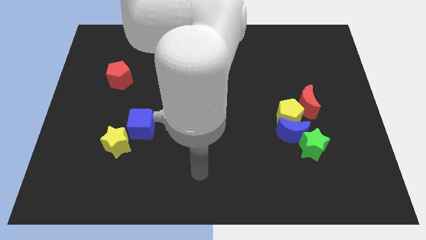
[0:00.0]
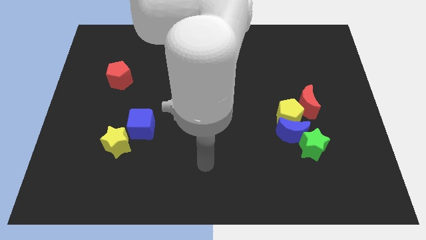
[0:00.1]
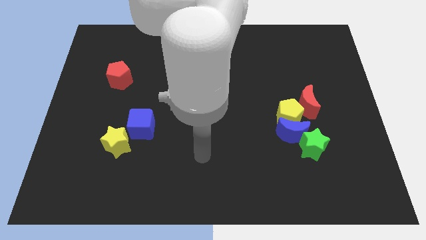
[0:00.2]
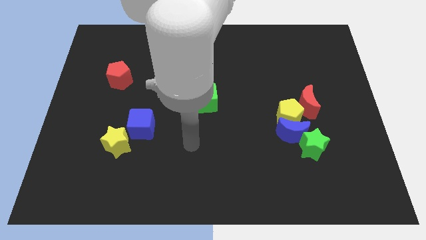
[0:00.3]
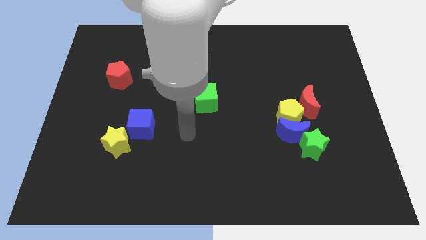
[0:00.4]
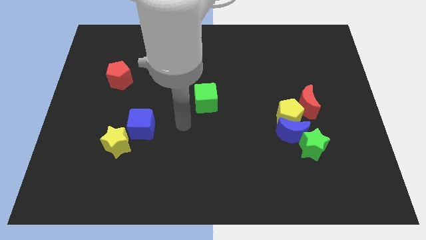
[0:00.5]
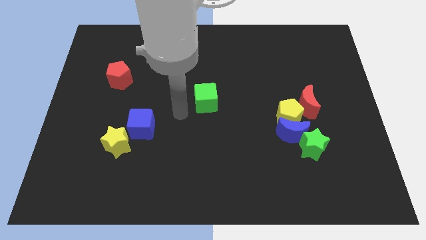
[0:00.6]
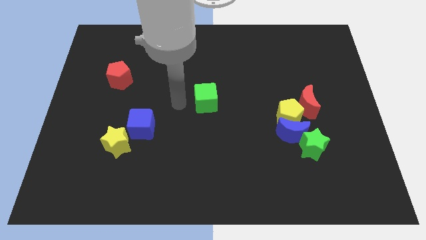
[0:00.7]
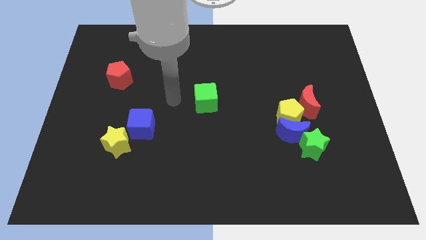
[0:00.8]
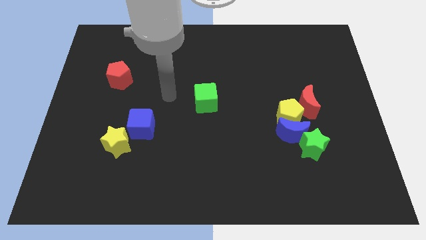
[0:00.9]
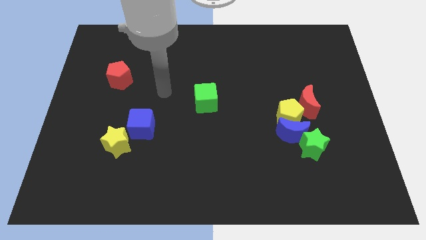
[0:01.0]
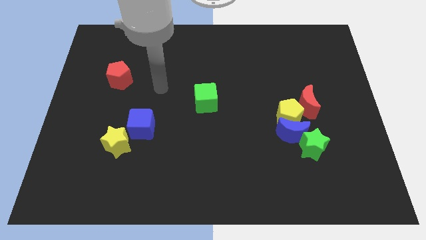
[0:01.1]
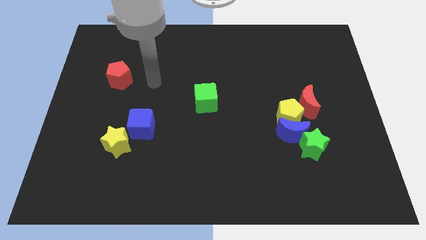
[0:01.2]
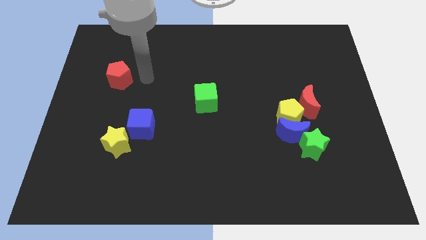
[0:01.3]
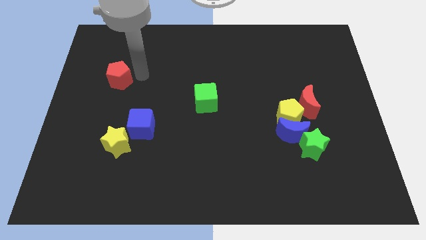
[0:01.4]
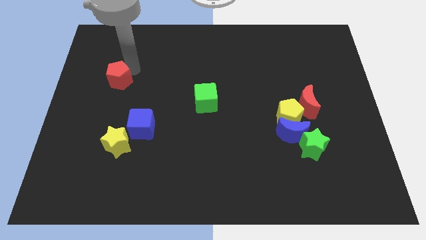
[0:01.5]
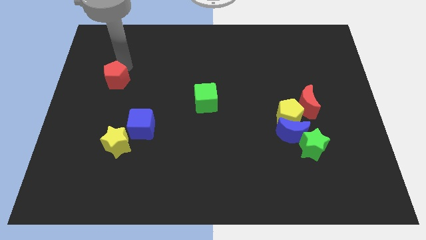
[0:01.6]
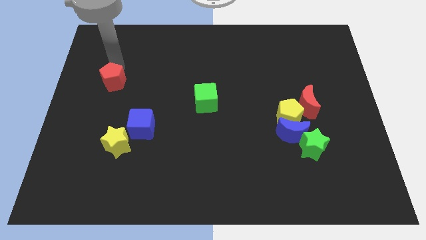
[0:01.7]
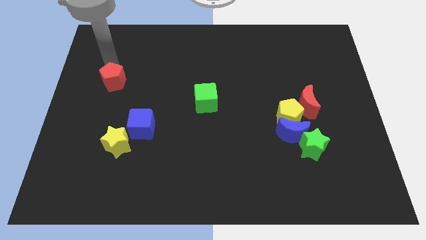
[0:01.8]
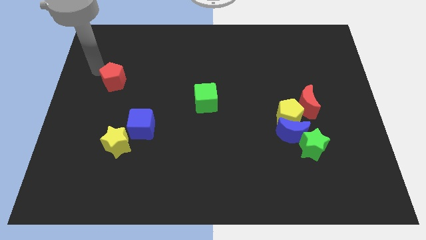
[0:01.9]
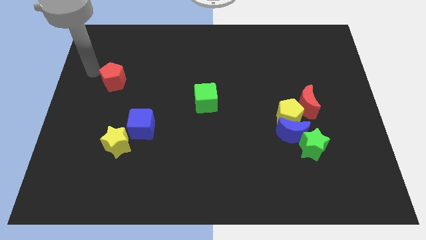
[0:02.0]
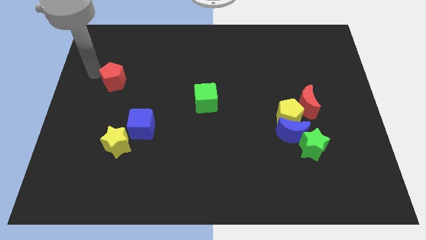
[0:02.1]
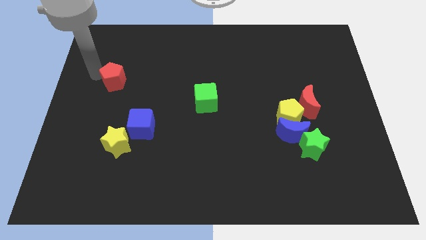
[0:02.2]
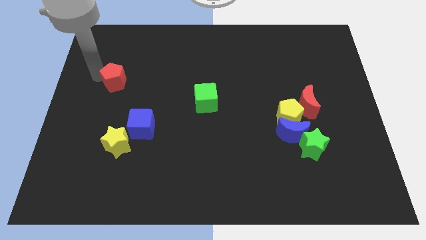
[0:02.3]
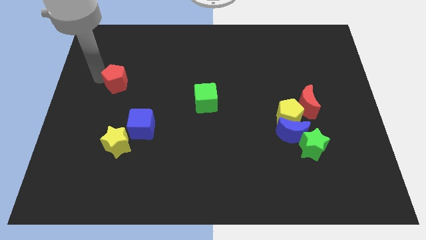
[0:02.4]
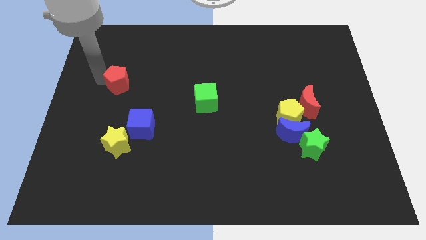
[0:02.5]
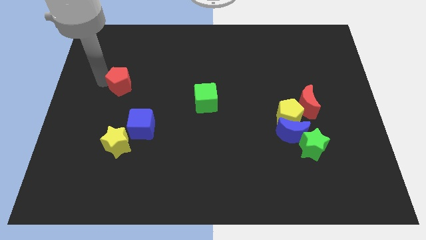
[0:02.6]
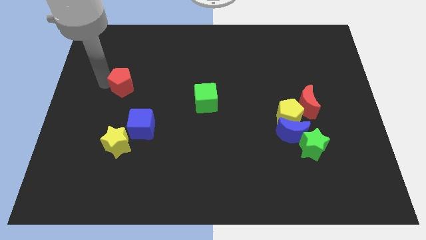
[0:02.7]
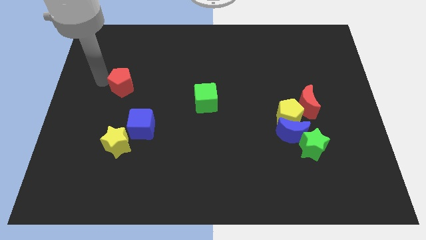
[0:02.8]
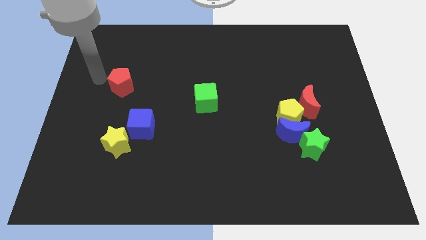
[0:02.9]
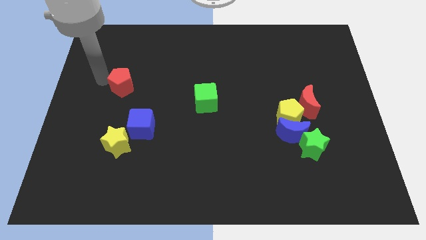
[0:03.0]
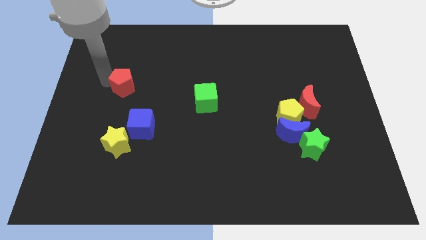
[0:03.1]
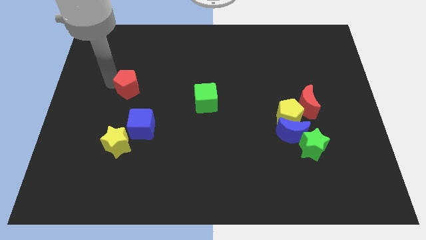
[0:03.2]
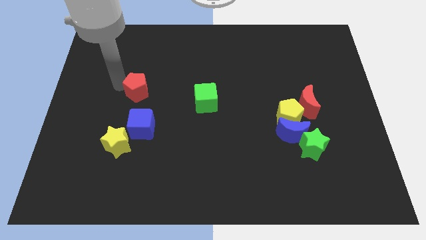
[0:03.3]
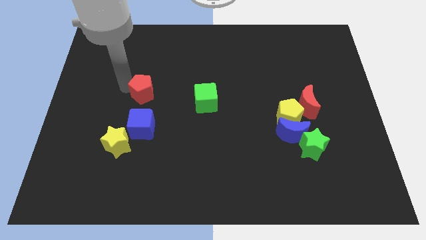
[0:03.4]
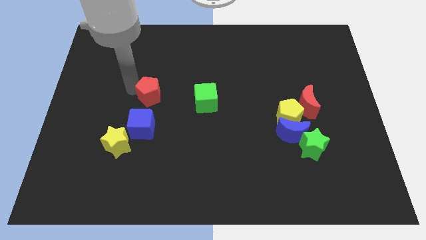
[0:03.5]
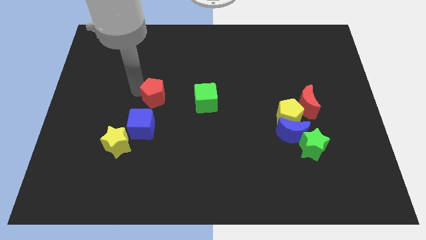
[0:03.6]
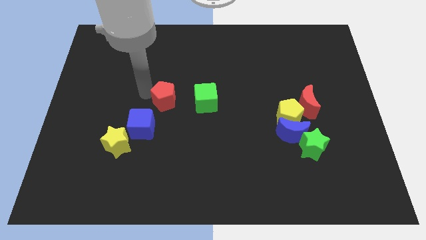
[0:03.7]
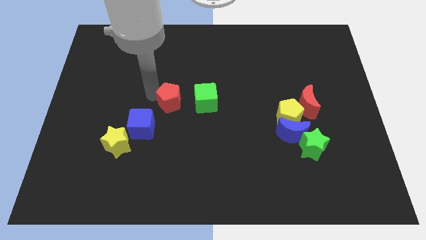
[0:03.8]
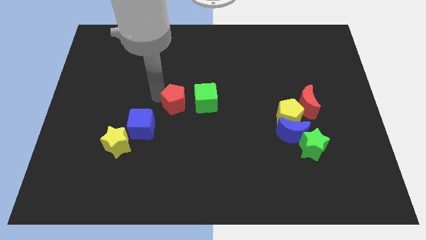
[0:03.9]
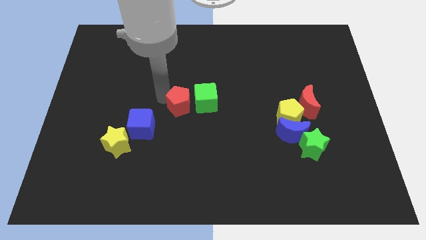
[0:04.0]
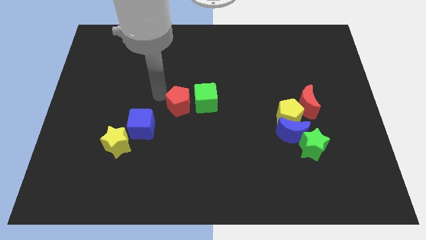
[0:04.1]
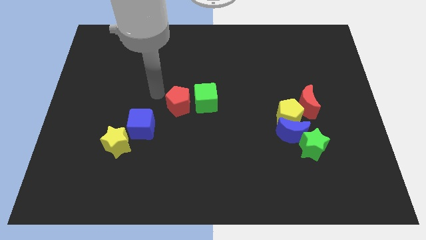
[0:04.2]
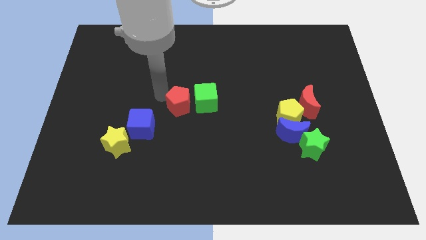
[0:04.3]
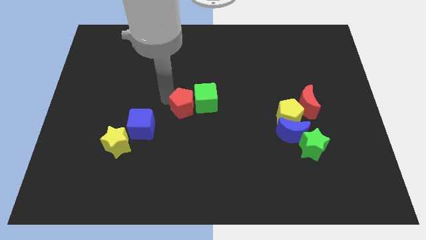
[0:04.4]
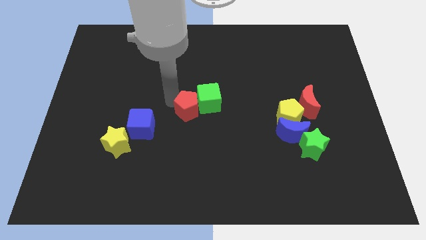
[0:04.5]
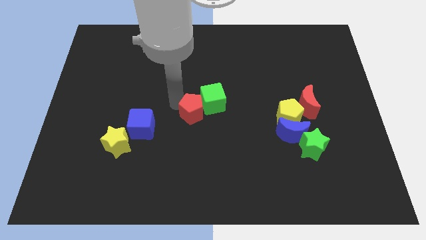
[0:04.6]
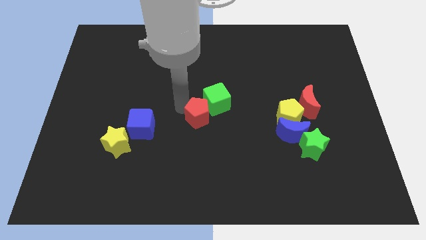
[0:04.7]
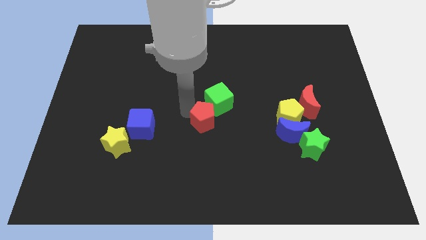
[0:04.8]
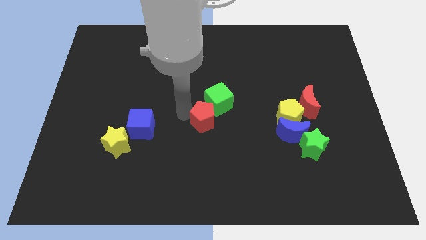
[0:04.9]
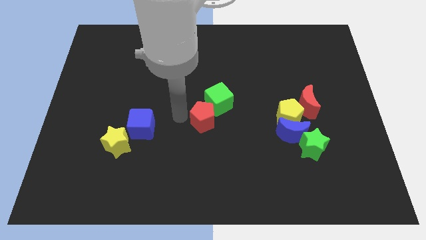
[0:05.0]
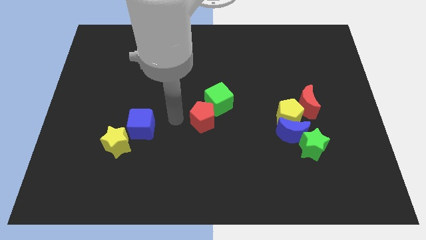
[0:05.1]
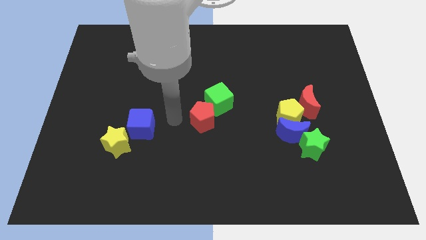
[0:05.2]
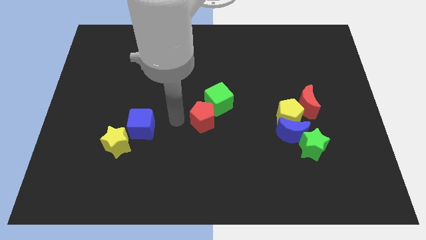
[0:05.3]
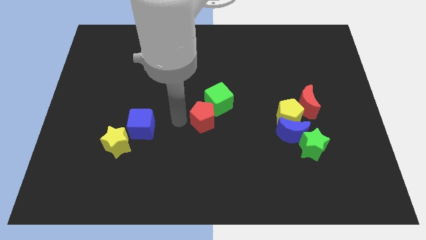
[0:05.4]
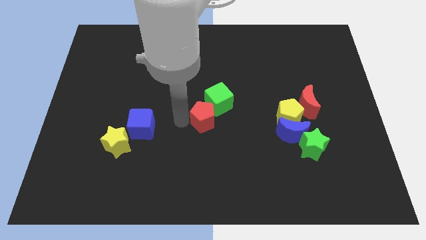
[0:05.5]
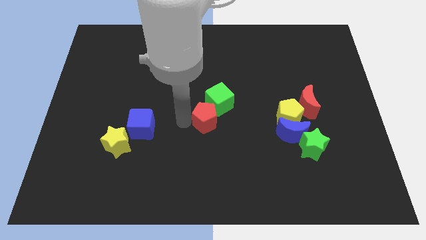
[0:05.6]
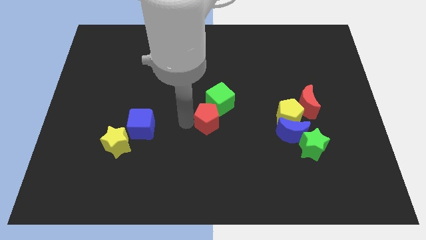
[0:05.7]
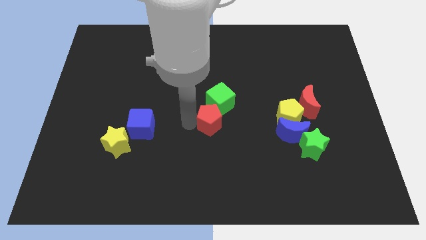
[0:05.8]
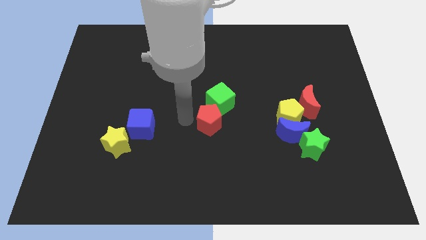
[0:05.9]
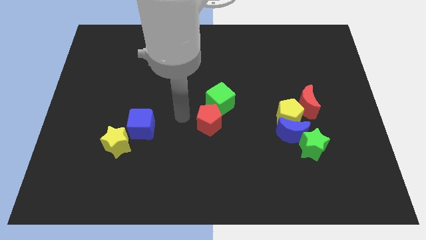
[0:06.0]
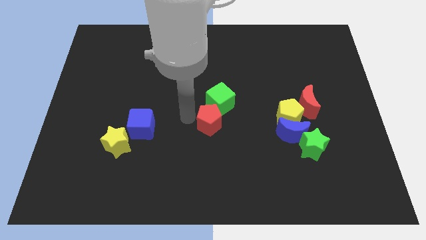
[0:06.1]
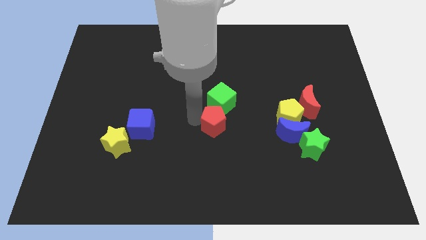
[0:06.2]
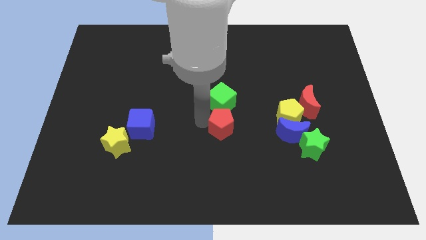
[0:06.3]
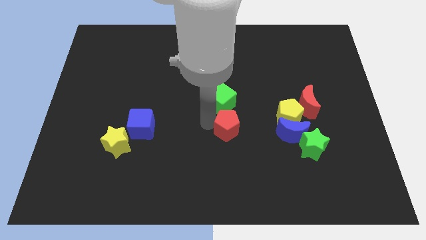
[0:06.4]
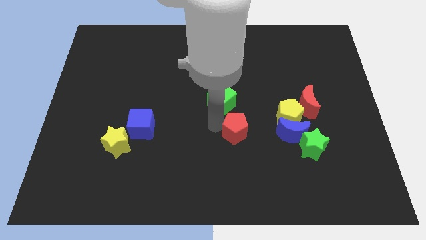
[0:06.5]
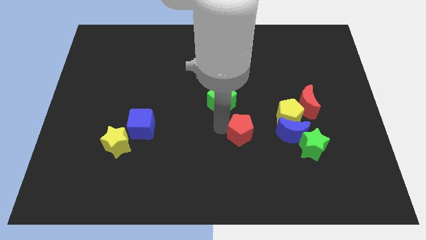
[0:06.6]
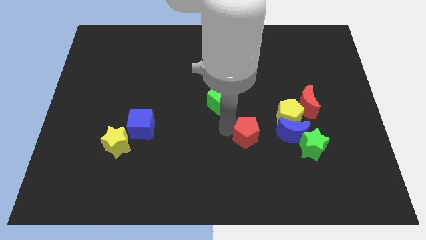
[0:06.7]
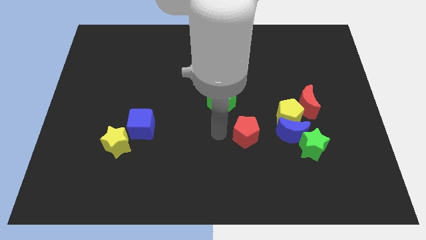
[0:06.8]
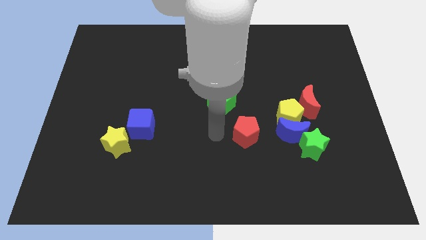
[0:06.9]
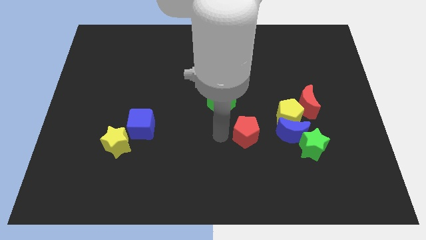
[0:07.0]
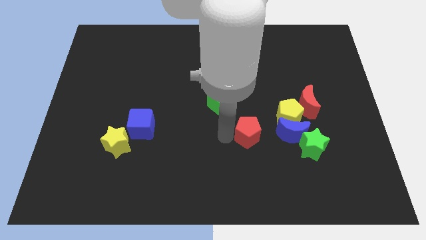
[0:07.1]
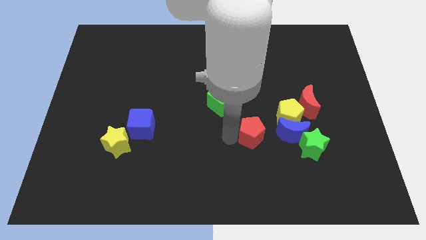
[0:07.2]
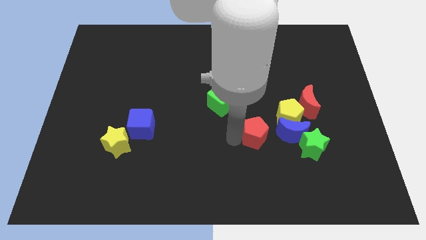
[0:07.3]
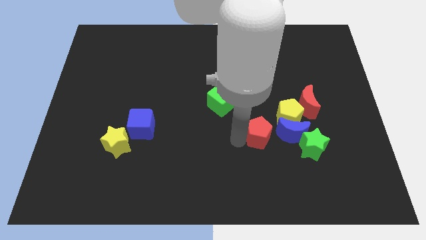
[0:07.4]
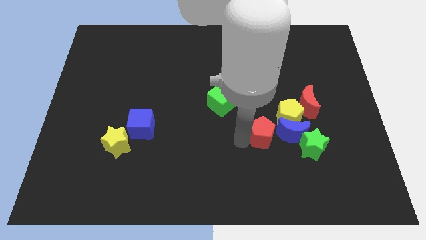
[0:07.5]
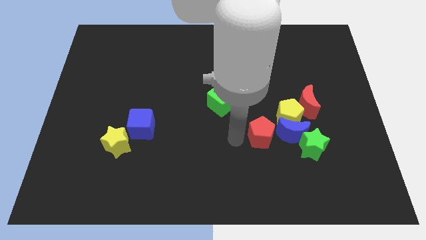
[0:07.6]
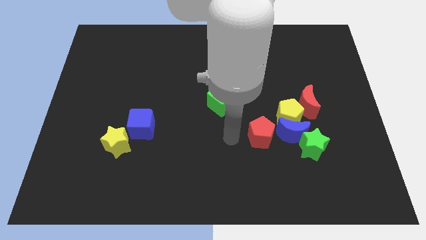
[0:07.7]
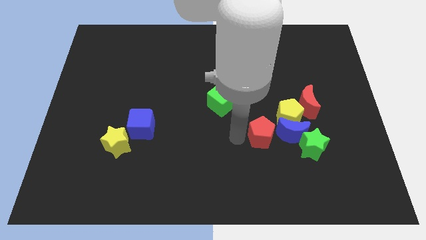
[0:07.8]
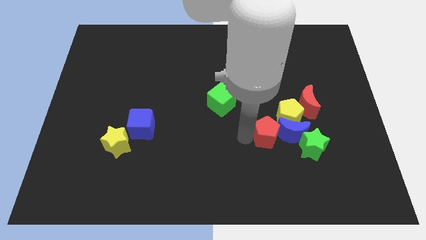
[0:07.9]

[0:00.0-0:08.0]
move the red pentagon next to the blue moon
